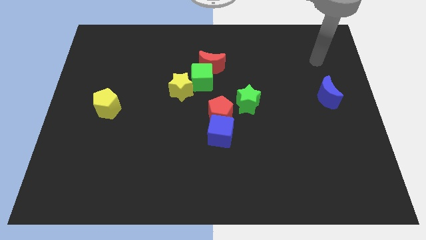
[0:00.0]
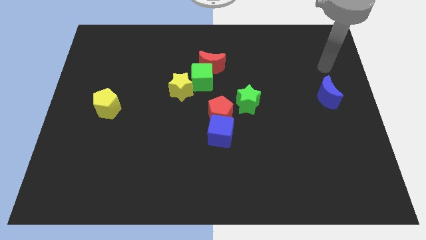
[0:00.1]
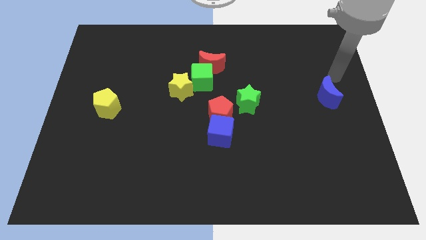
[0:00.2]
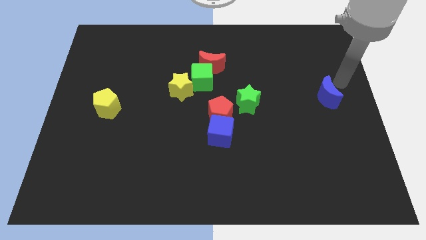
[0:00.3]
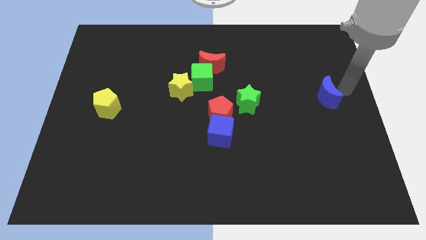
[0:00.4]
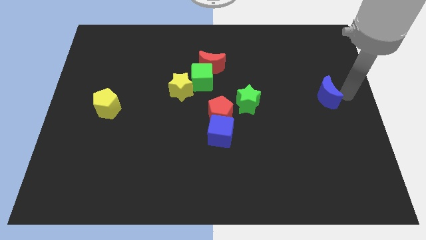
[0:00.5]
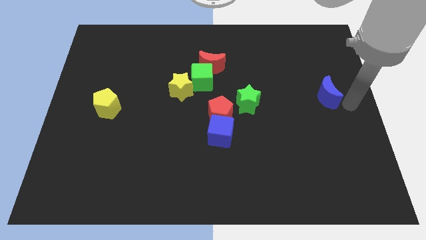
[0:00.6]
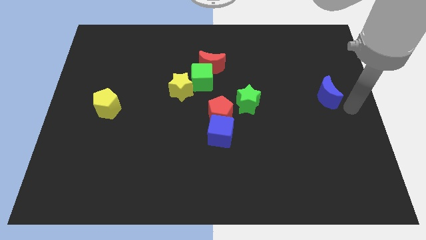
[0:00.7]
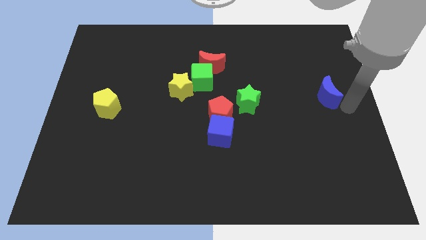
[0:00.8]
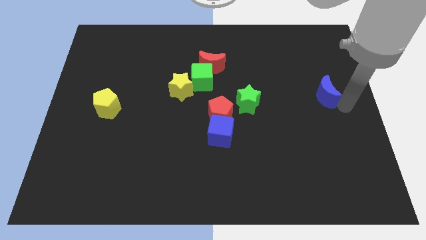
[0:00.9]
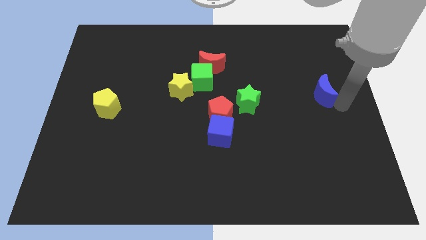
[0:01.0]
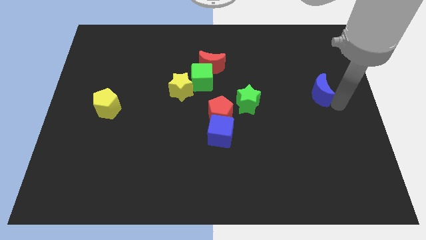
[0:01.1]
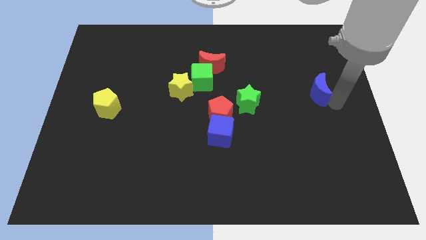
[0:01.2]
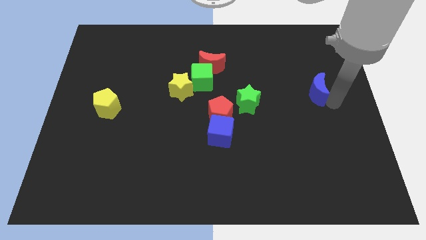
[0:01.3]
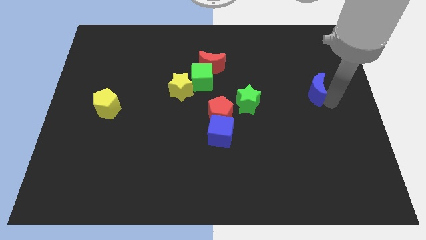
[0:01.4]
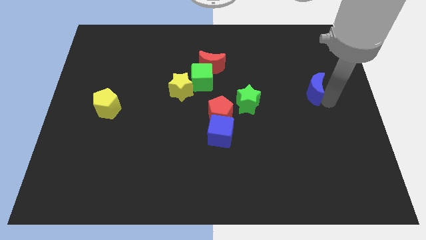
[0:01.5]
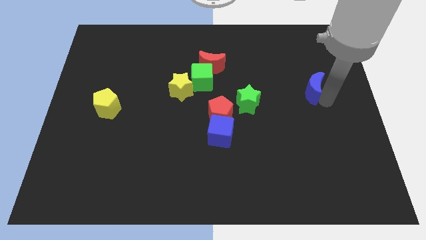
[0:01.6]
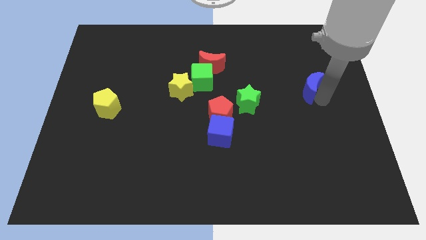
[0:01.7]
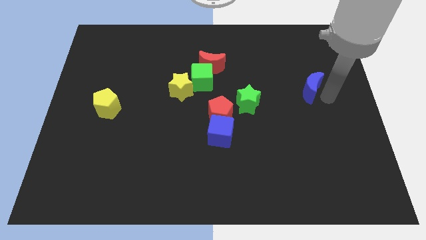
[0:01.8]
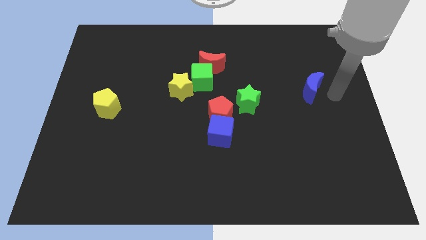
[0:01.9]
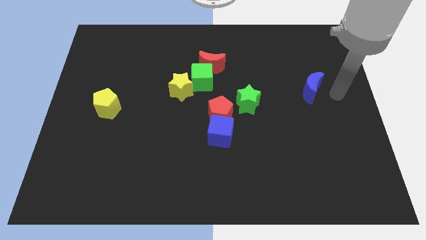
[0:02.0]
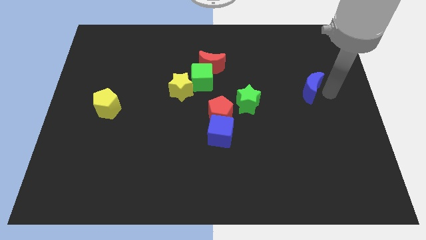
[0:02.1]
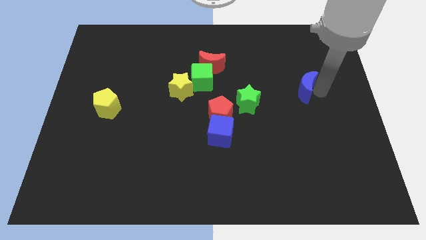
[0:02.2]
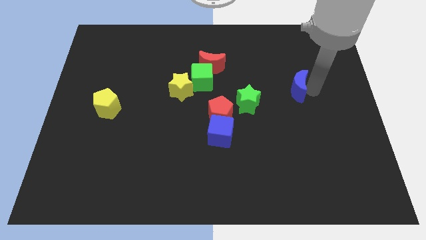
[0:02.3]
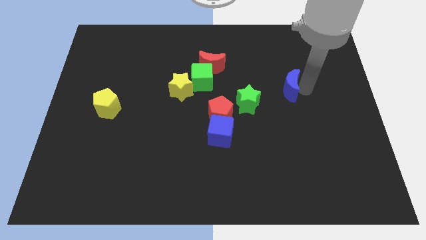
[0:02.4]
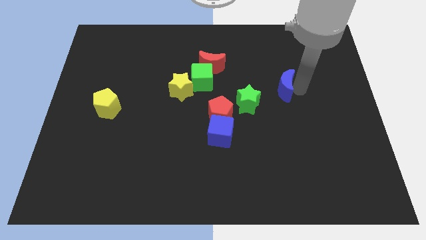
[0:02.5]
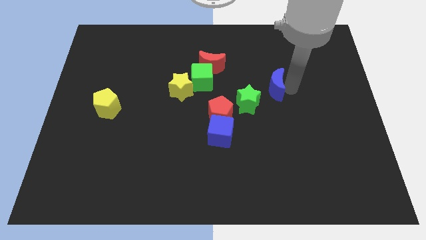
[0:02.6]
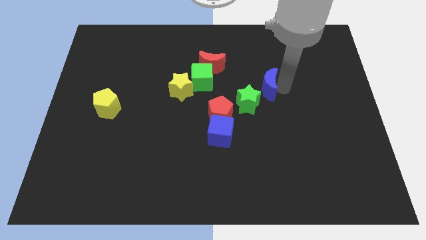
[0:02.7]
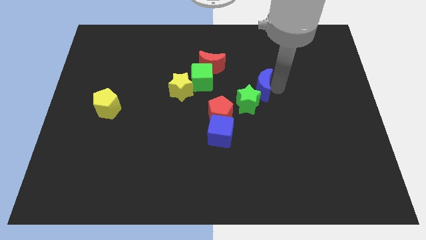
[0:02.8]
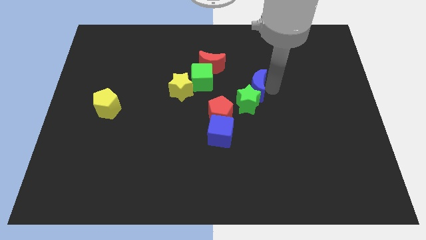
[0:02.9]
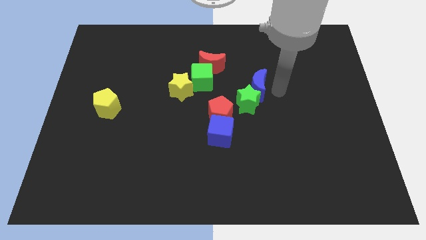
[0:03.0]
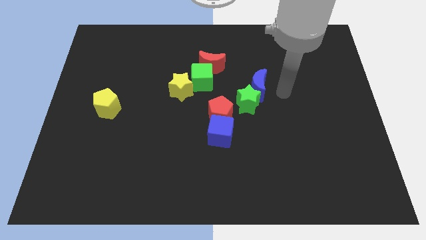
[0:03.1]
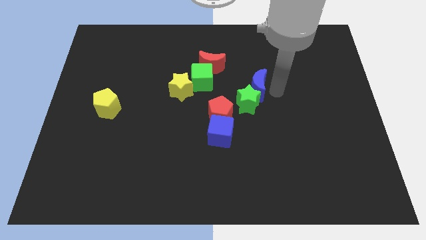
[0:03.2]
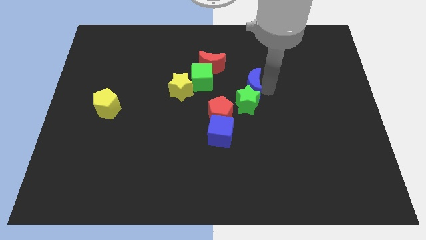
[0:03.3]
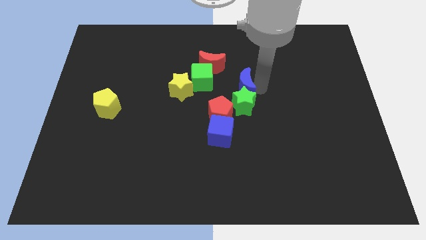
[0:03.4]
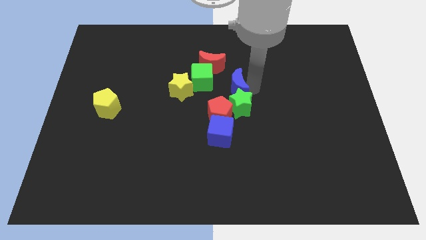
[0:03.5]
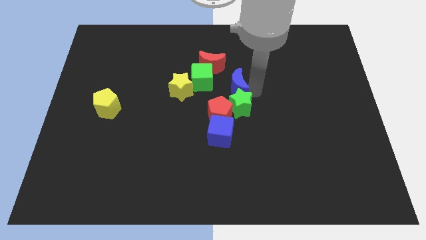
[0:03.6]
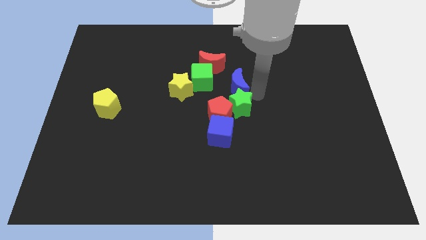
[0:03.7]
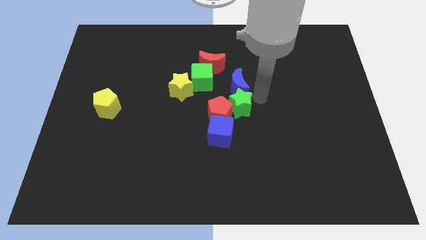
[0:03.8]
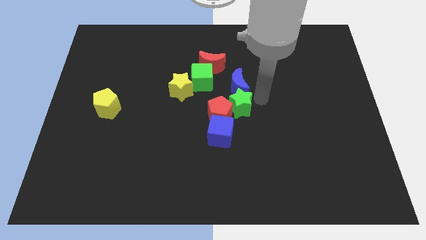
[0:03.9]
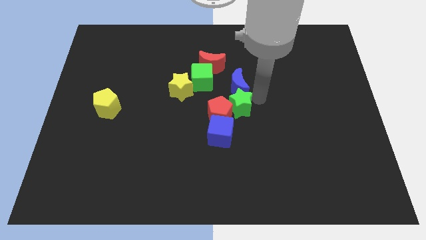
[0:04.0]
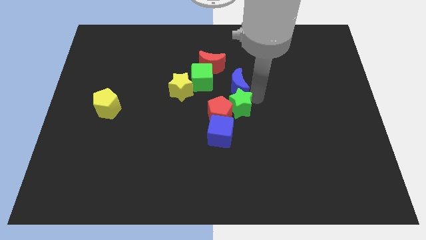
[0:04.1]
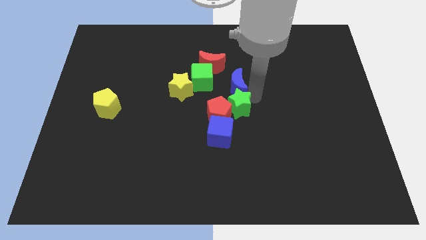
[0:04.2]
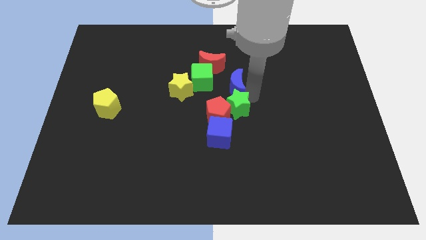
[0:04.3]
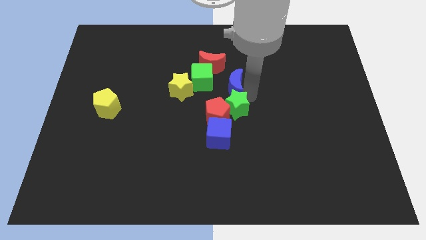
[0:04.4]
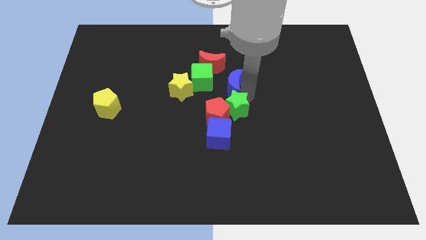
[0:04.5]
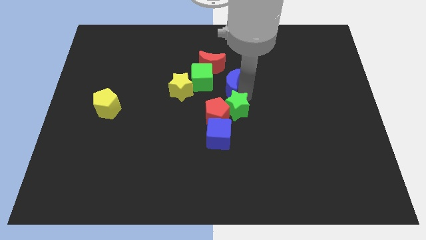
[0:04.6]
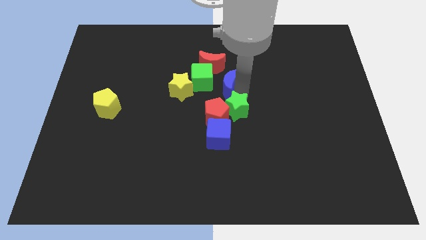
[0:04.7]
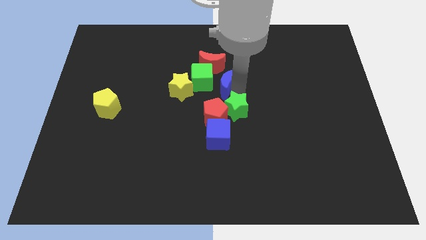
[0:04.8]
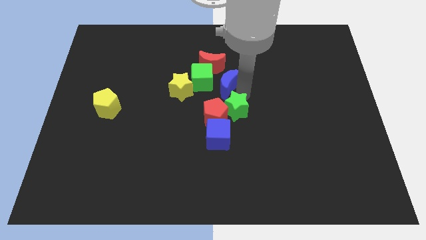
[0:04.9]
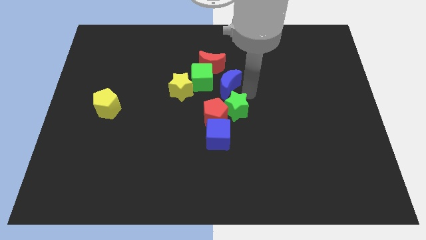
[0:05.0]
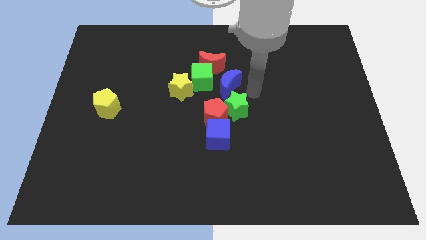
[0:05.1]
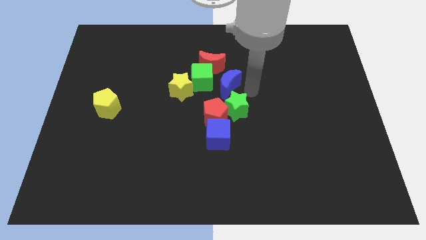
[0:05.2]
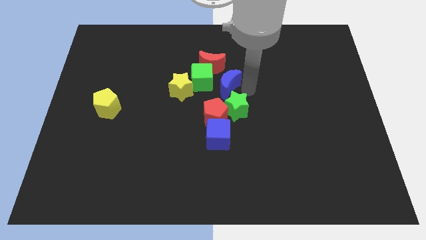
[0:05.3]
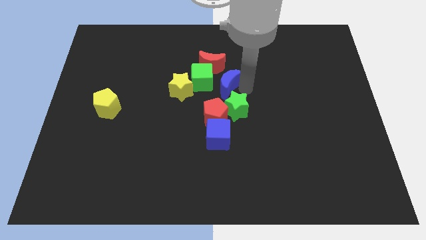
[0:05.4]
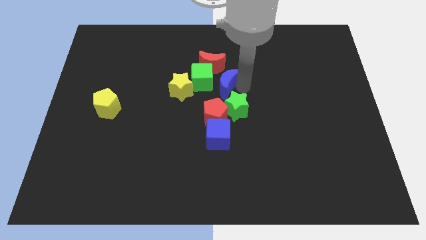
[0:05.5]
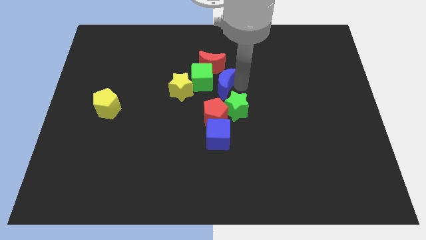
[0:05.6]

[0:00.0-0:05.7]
push the blue moon towards the green cube

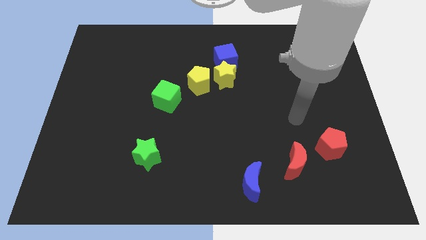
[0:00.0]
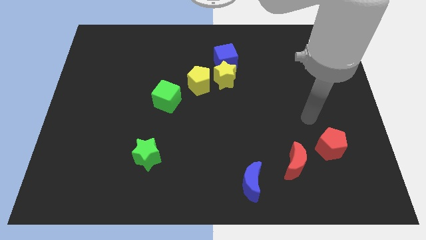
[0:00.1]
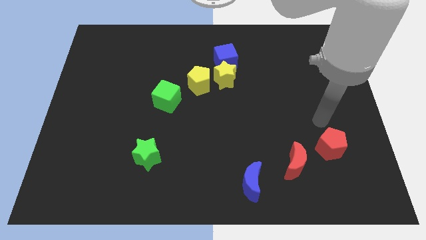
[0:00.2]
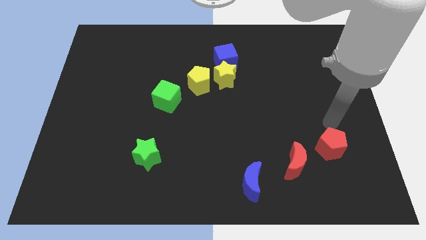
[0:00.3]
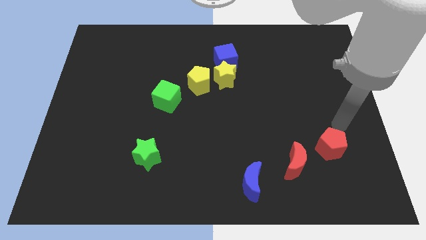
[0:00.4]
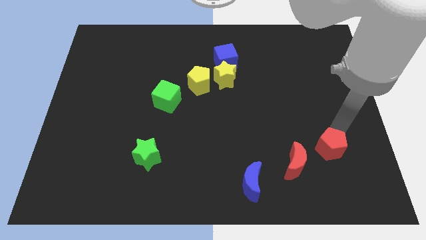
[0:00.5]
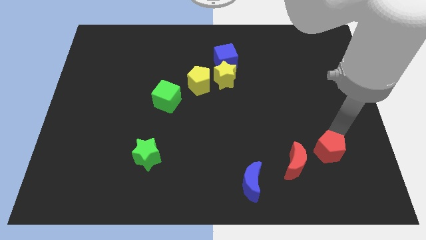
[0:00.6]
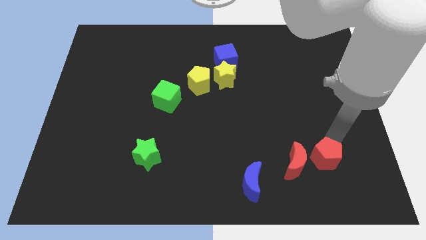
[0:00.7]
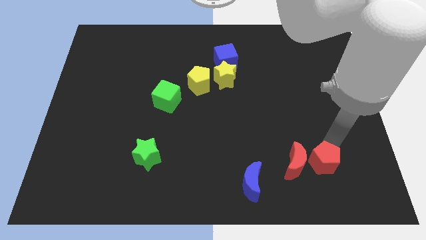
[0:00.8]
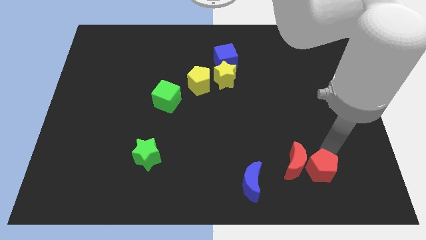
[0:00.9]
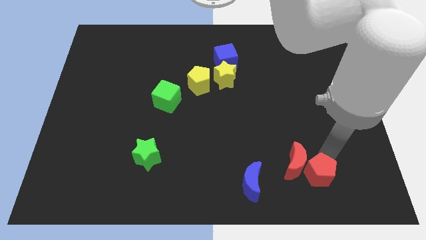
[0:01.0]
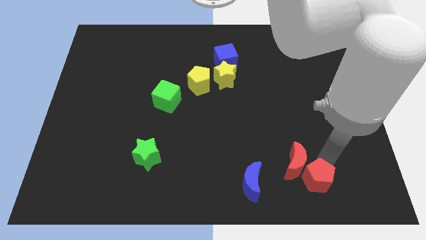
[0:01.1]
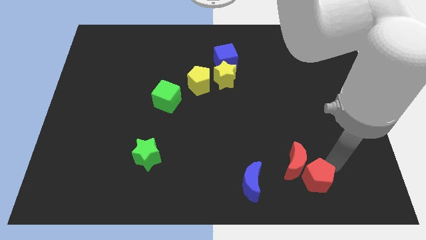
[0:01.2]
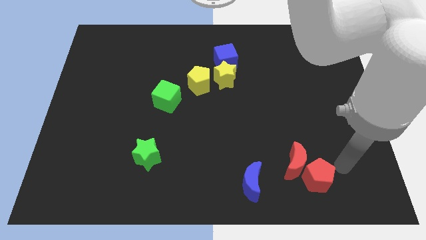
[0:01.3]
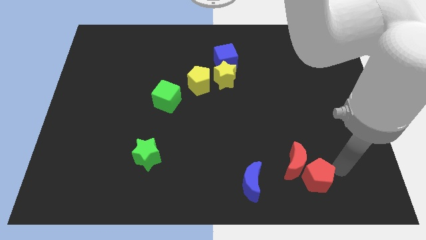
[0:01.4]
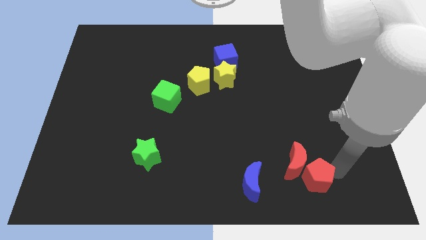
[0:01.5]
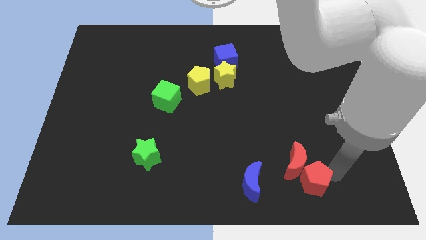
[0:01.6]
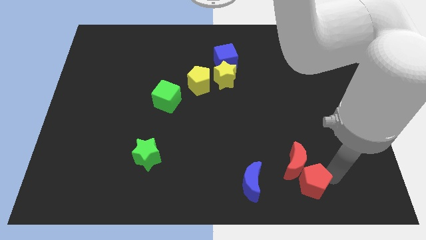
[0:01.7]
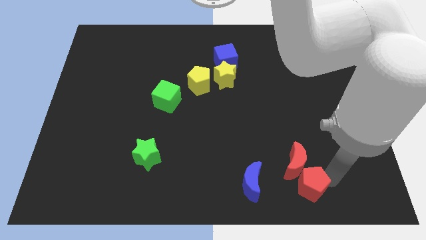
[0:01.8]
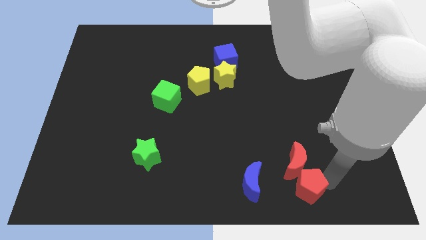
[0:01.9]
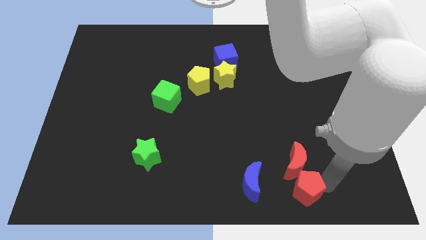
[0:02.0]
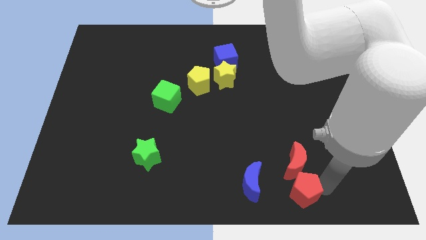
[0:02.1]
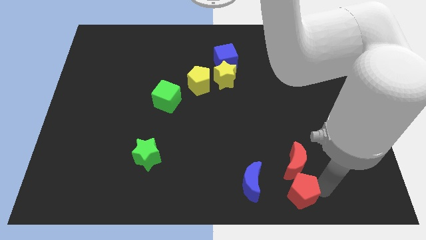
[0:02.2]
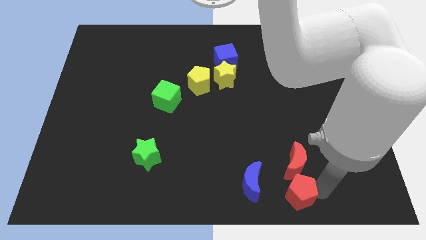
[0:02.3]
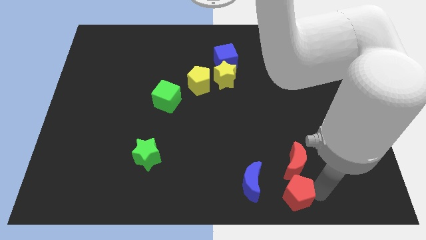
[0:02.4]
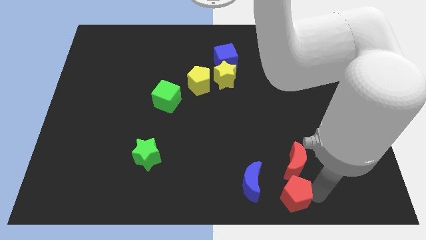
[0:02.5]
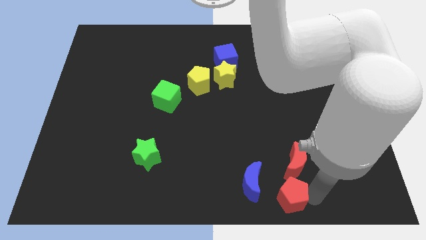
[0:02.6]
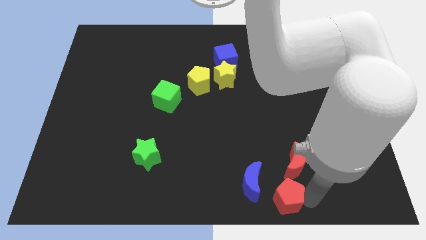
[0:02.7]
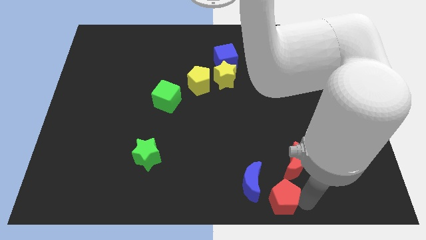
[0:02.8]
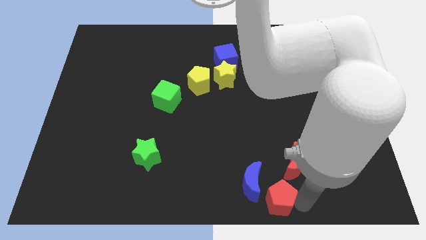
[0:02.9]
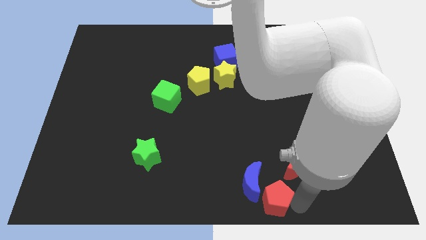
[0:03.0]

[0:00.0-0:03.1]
push the red pentagon next to the blue moon
